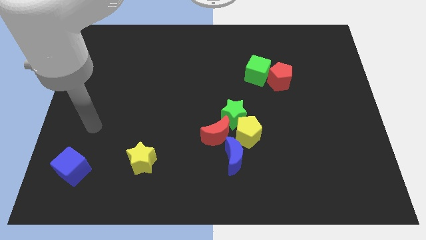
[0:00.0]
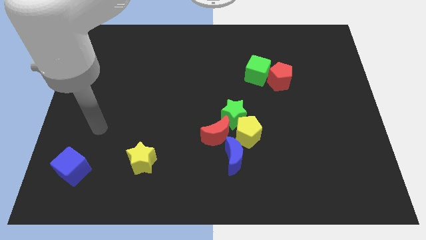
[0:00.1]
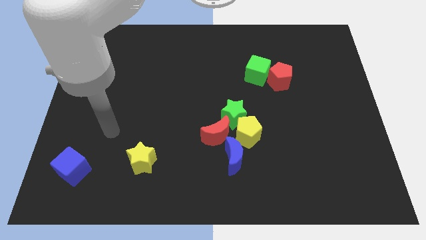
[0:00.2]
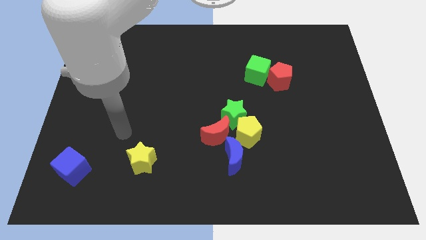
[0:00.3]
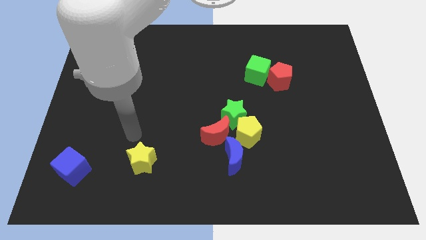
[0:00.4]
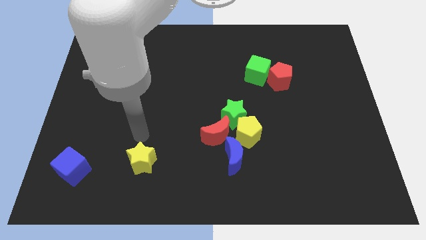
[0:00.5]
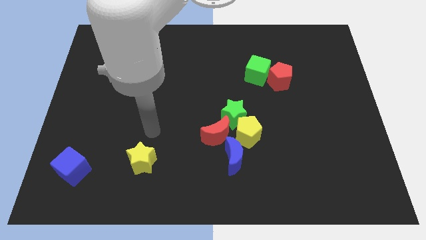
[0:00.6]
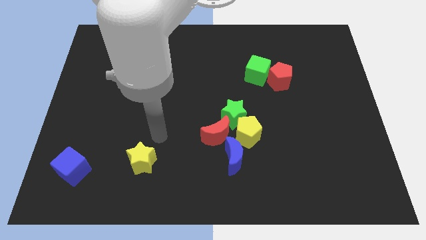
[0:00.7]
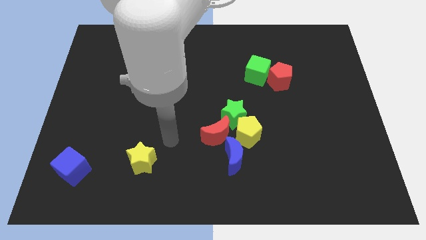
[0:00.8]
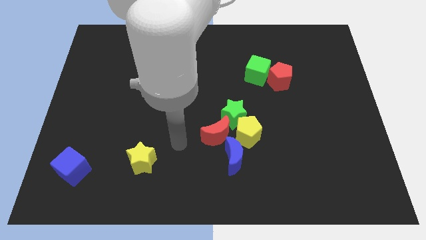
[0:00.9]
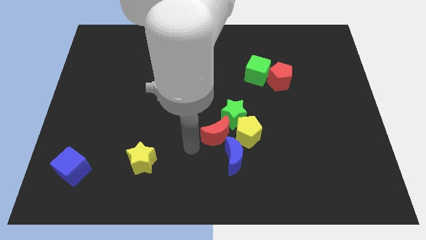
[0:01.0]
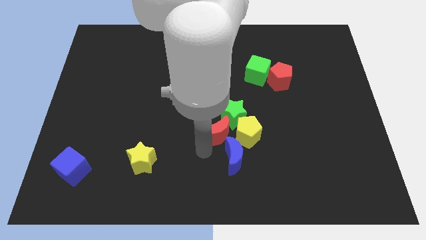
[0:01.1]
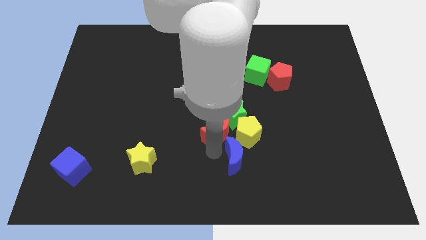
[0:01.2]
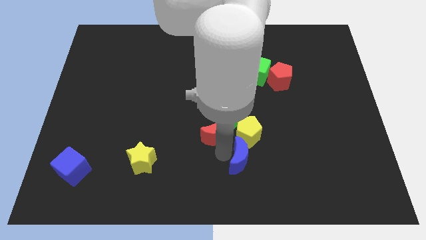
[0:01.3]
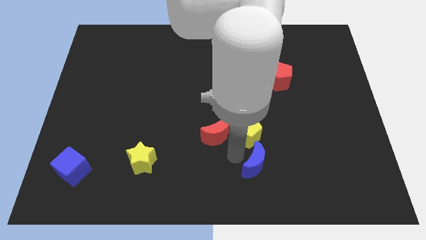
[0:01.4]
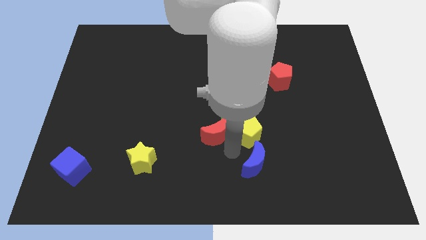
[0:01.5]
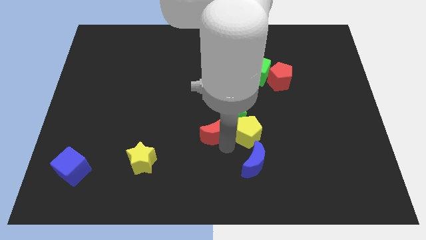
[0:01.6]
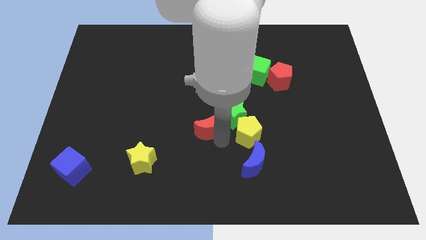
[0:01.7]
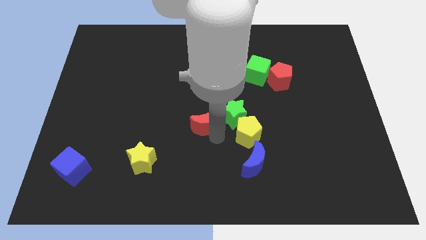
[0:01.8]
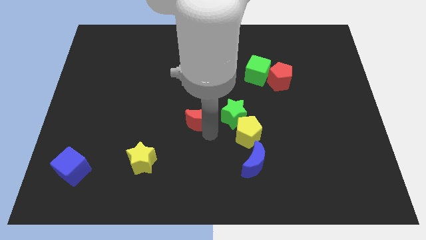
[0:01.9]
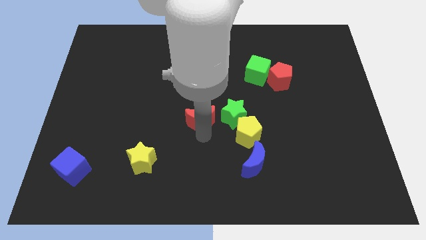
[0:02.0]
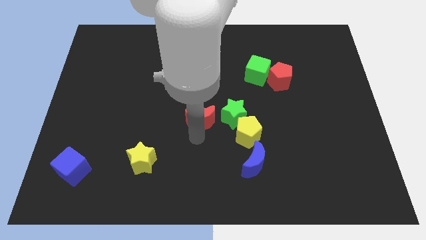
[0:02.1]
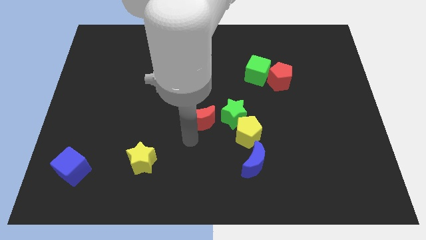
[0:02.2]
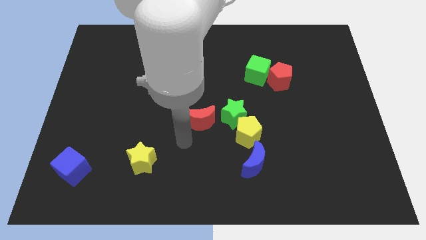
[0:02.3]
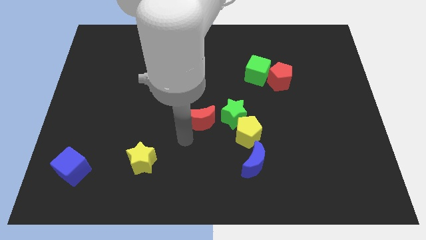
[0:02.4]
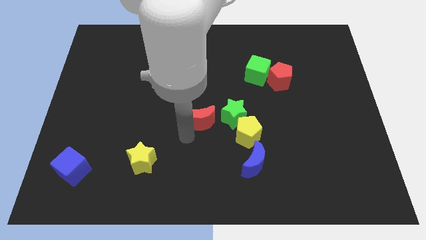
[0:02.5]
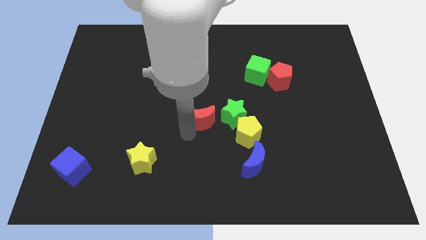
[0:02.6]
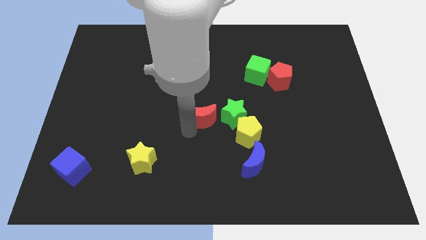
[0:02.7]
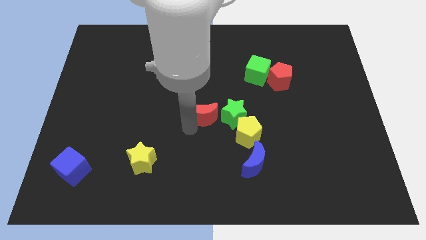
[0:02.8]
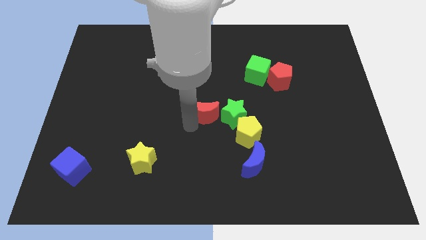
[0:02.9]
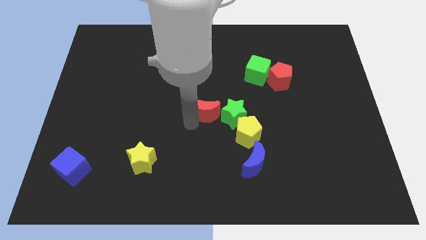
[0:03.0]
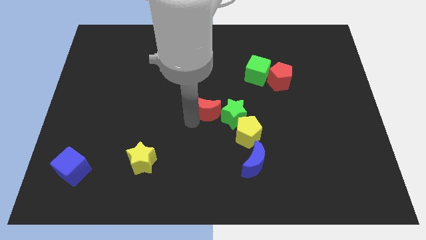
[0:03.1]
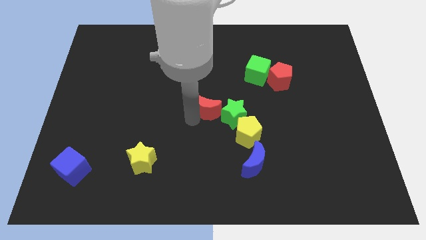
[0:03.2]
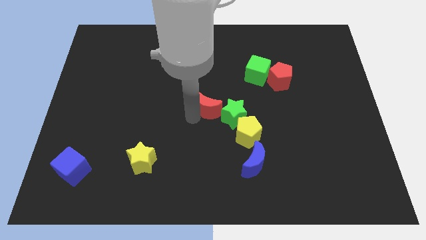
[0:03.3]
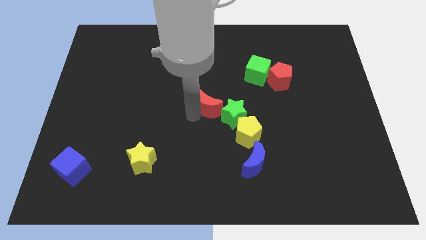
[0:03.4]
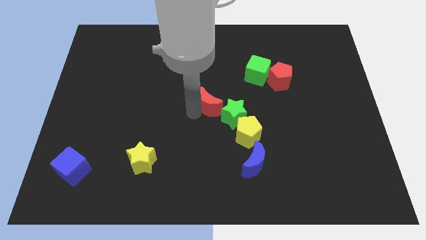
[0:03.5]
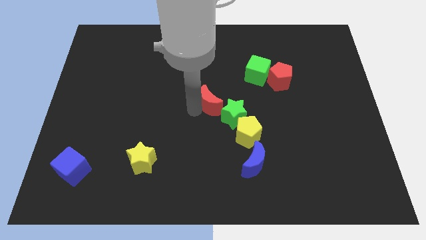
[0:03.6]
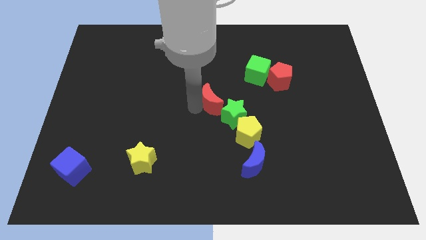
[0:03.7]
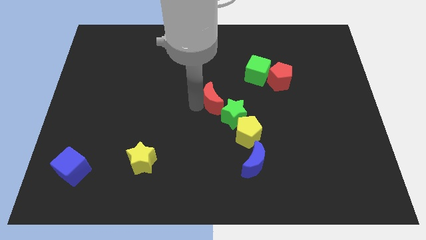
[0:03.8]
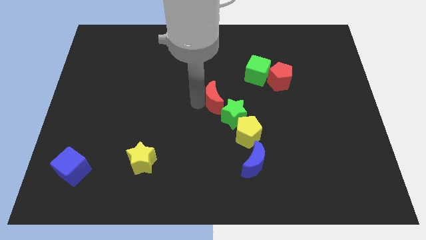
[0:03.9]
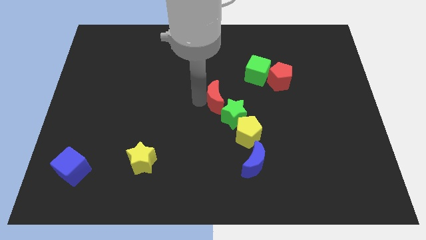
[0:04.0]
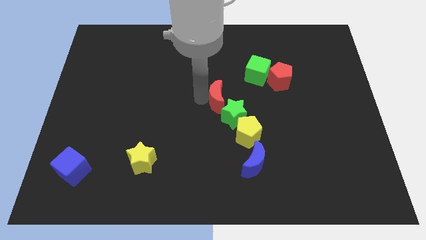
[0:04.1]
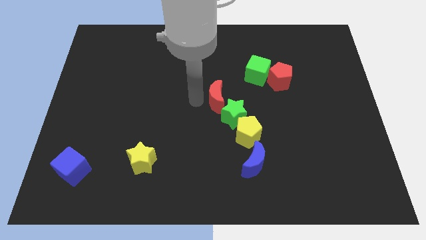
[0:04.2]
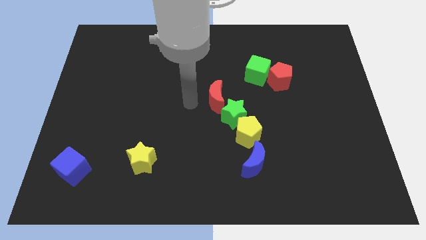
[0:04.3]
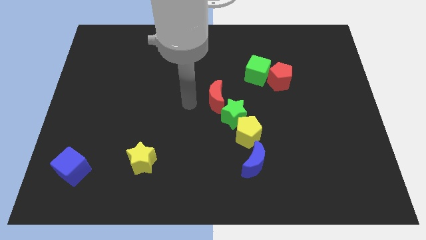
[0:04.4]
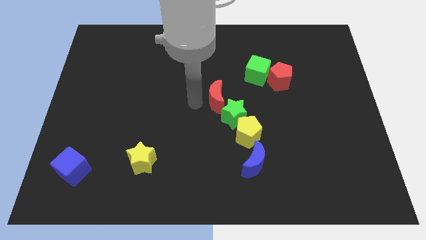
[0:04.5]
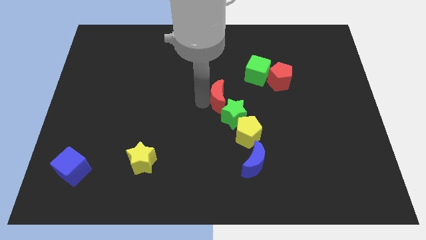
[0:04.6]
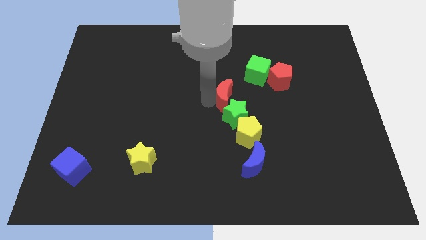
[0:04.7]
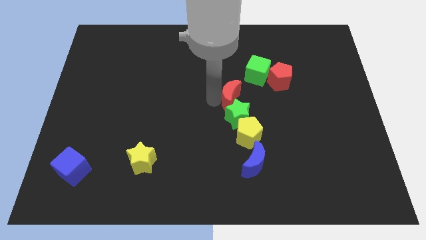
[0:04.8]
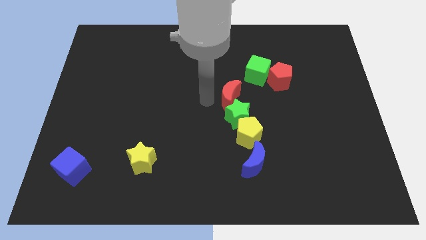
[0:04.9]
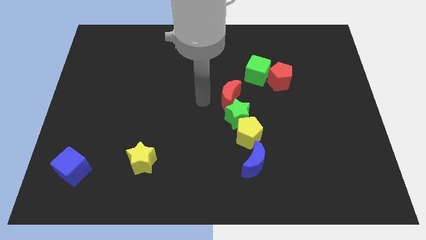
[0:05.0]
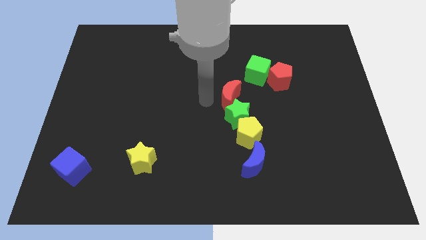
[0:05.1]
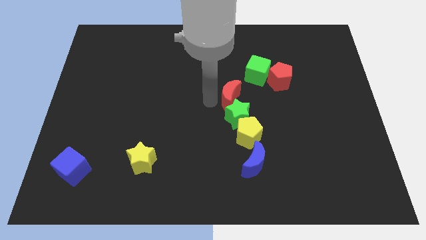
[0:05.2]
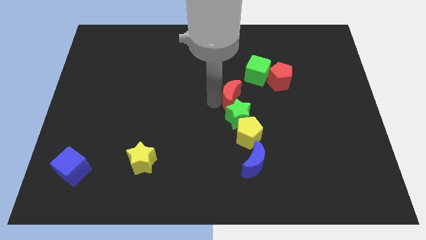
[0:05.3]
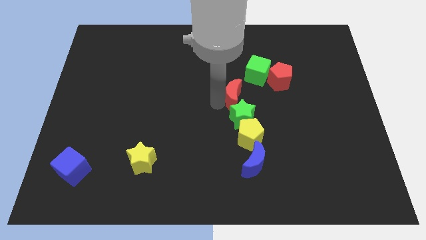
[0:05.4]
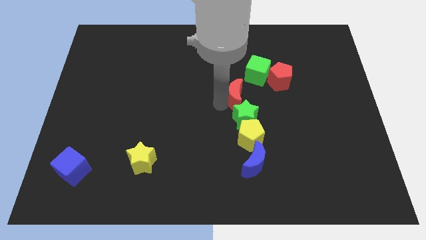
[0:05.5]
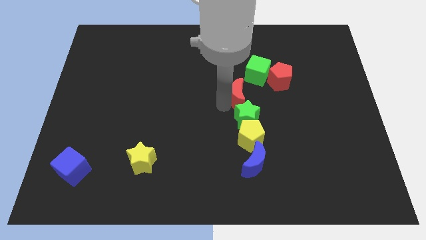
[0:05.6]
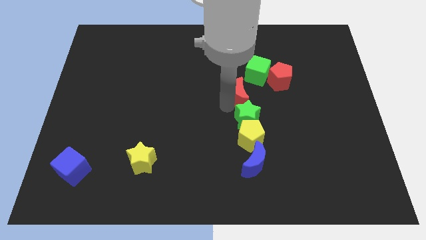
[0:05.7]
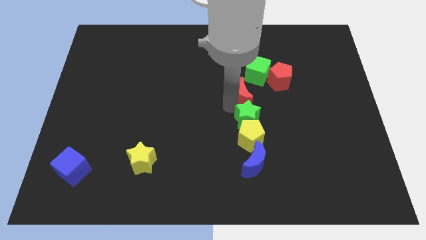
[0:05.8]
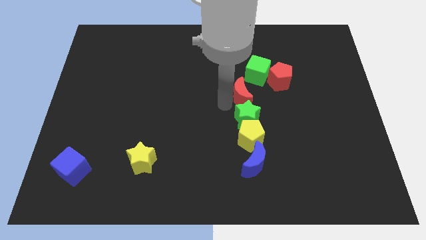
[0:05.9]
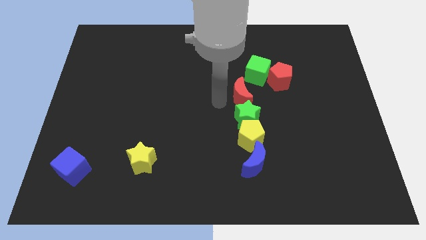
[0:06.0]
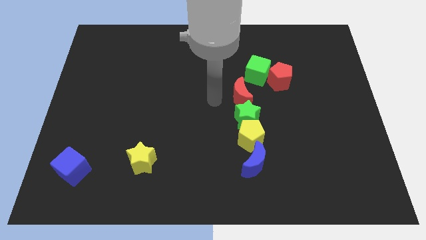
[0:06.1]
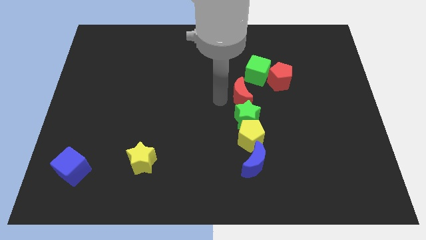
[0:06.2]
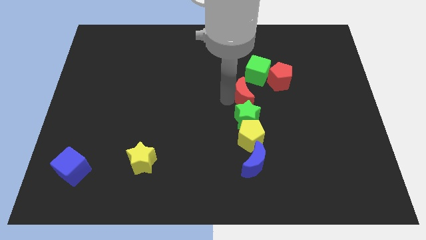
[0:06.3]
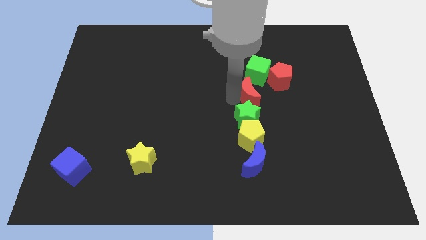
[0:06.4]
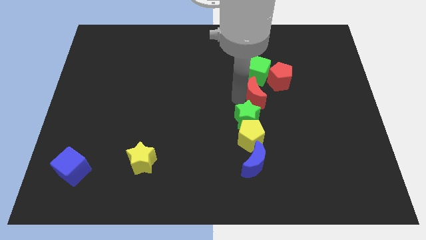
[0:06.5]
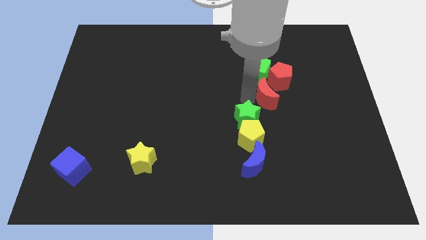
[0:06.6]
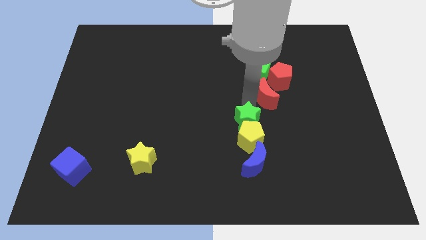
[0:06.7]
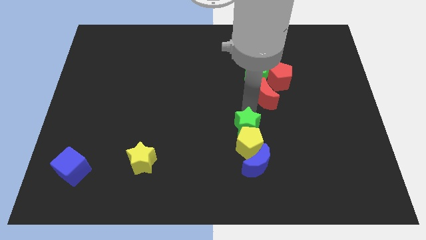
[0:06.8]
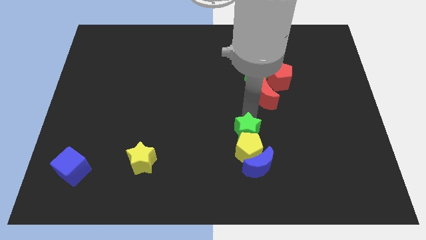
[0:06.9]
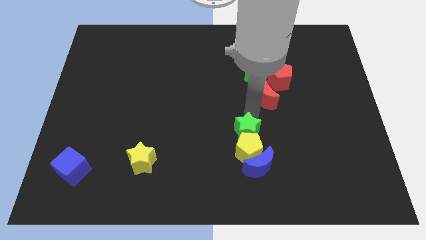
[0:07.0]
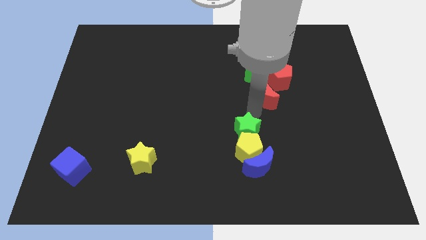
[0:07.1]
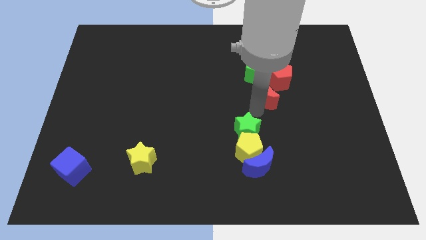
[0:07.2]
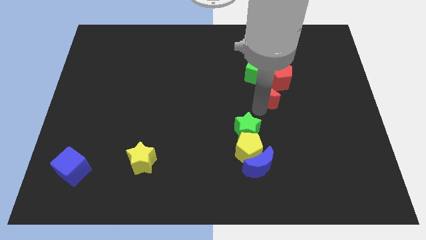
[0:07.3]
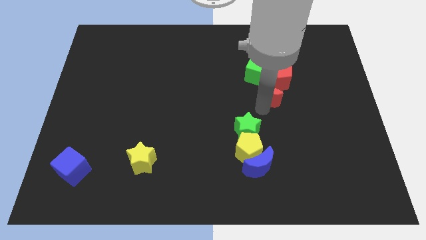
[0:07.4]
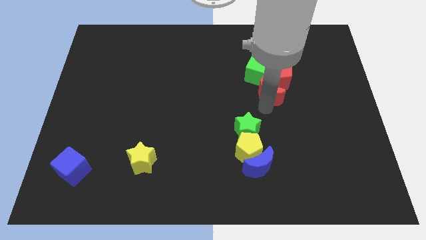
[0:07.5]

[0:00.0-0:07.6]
slide the red moon close to the red pentagon

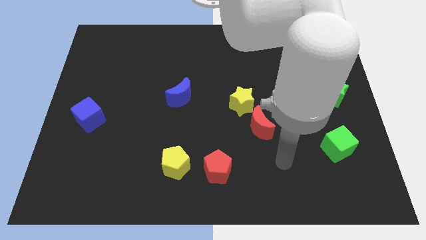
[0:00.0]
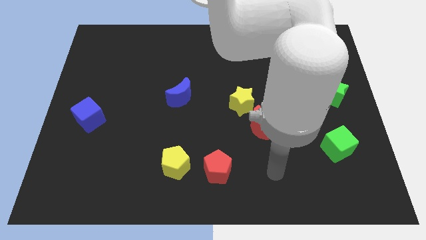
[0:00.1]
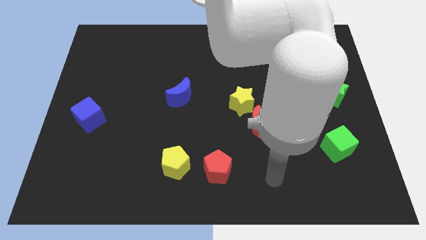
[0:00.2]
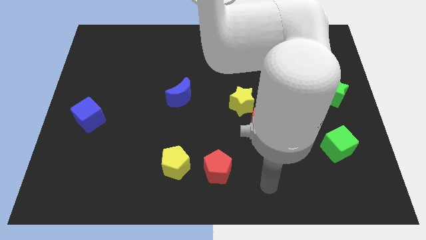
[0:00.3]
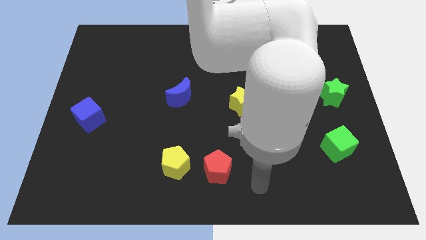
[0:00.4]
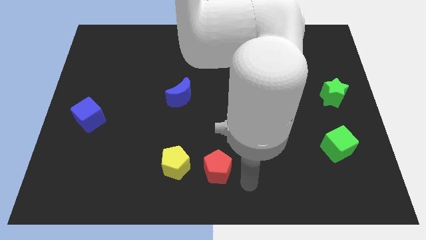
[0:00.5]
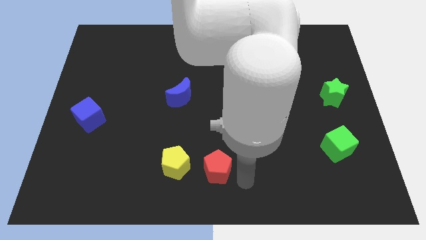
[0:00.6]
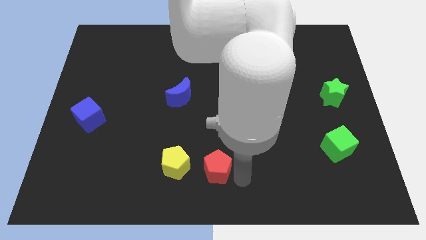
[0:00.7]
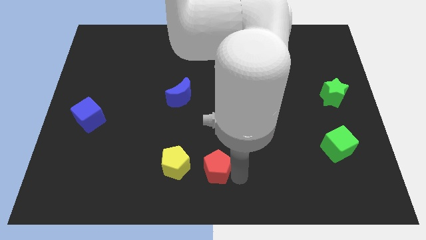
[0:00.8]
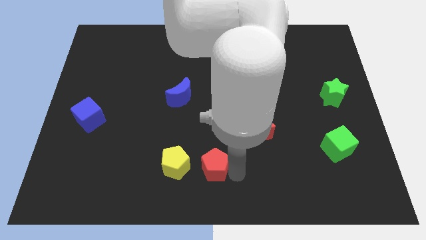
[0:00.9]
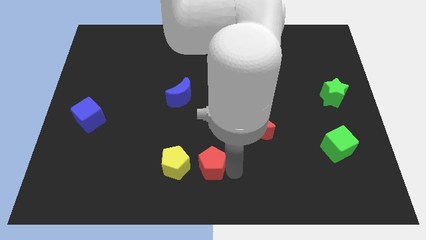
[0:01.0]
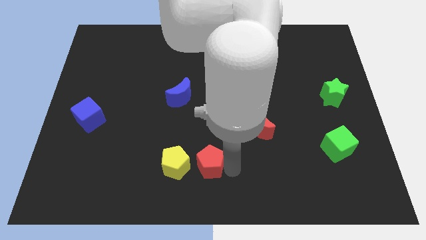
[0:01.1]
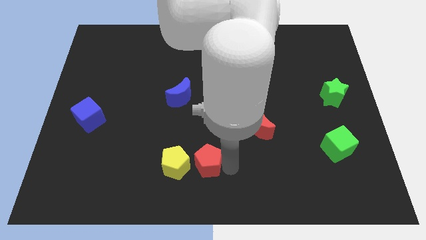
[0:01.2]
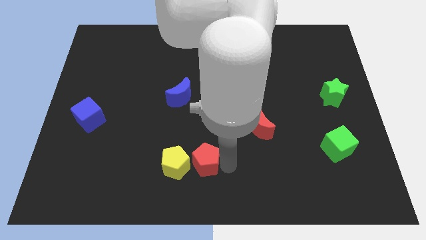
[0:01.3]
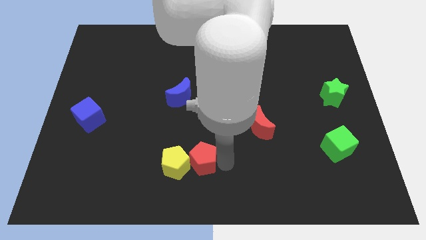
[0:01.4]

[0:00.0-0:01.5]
push the red pentagon close to the yellow pentagon
